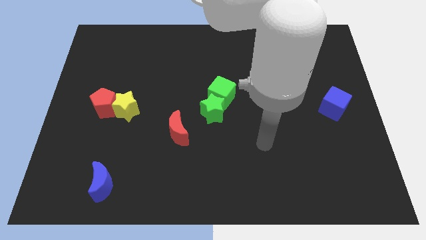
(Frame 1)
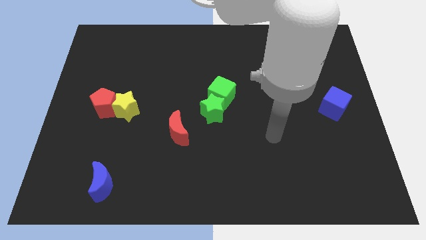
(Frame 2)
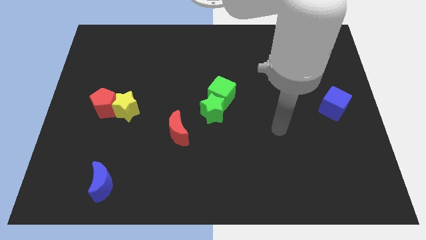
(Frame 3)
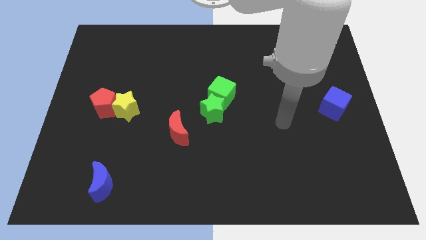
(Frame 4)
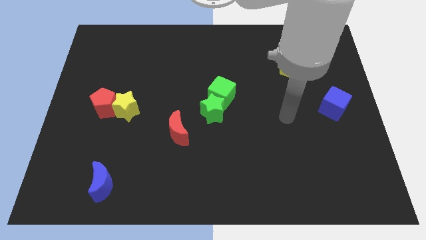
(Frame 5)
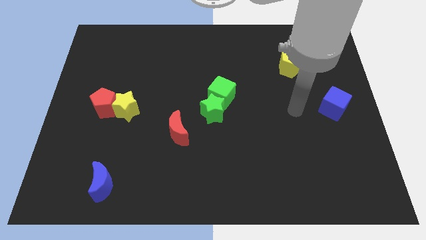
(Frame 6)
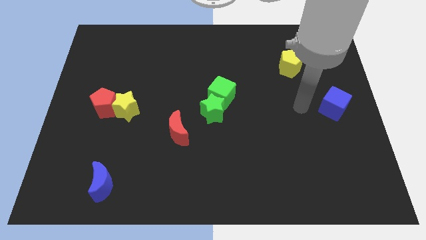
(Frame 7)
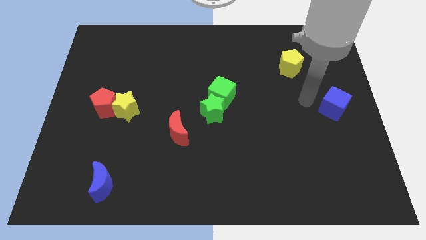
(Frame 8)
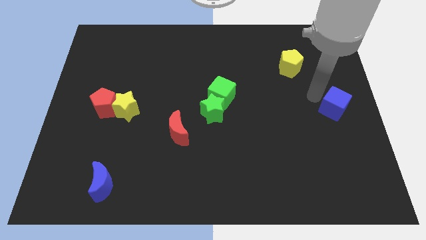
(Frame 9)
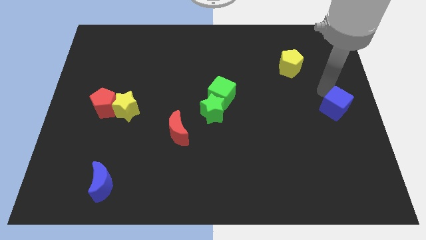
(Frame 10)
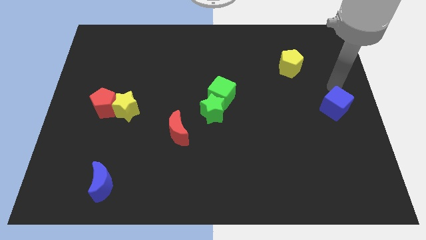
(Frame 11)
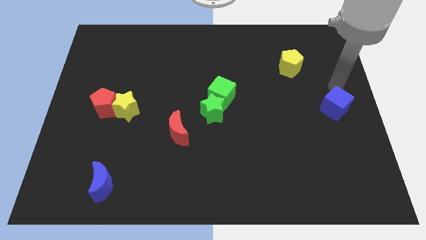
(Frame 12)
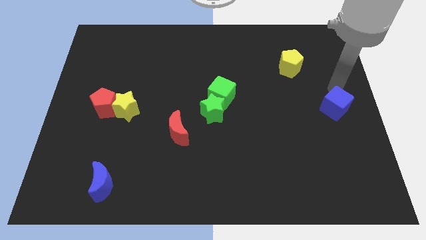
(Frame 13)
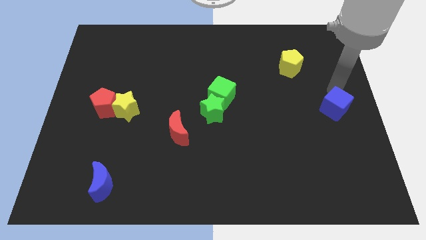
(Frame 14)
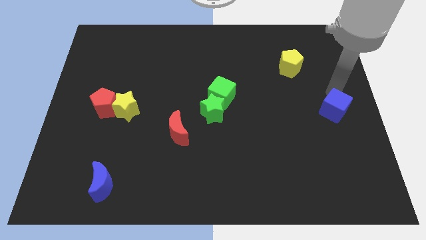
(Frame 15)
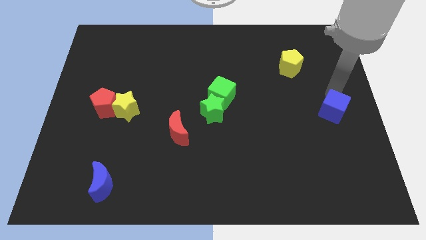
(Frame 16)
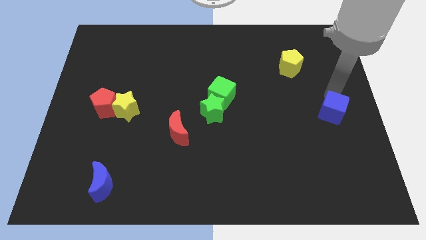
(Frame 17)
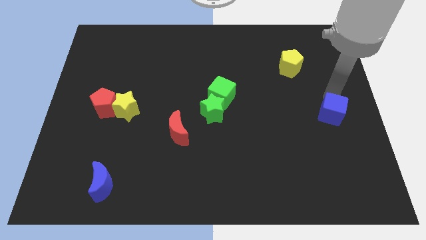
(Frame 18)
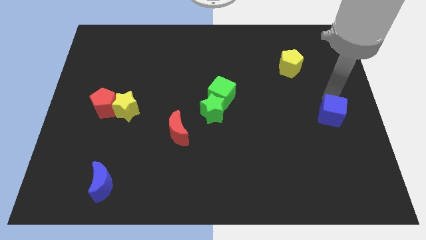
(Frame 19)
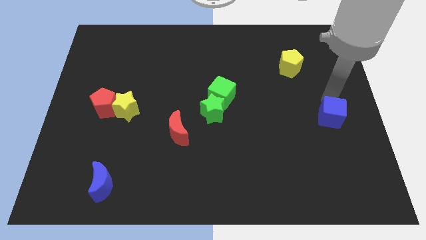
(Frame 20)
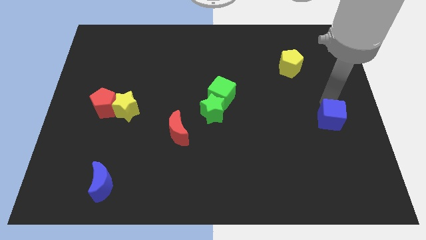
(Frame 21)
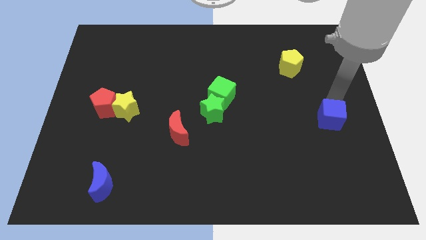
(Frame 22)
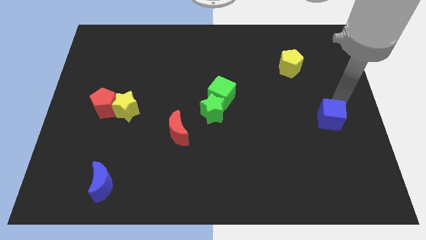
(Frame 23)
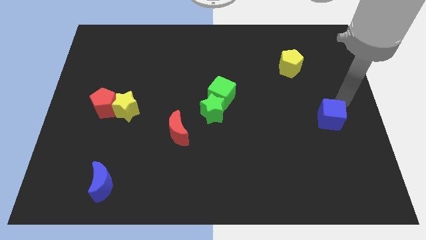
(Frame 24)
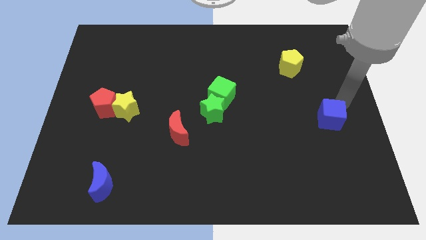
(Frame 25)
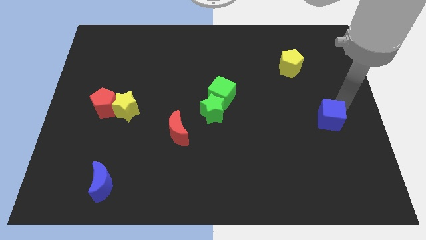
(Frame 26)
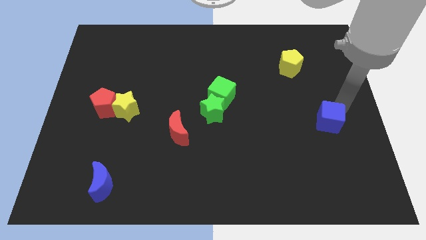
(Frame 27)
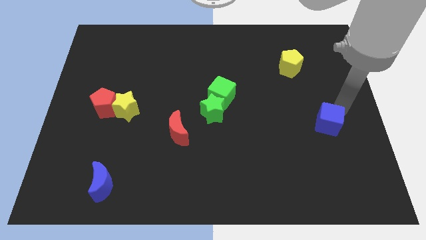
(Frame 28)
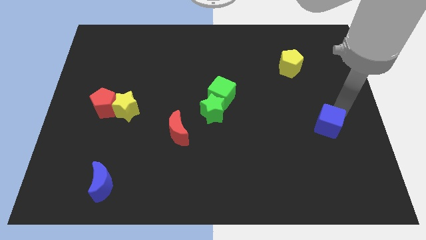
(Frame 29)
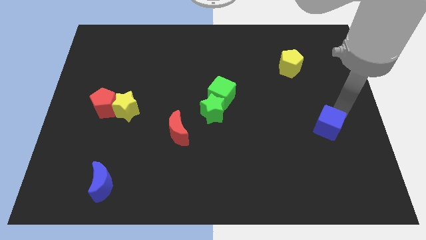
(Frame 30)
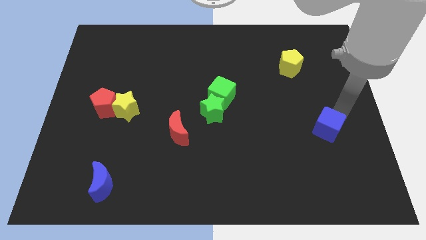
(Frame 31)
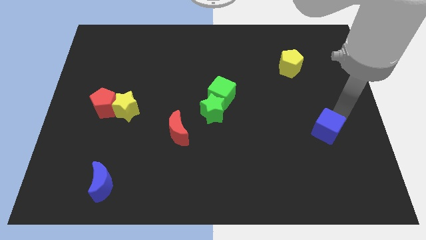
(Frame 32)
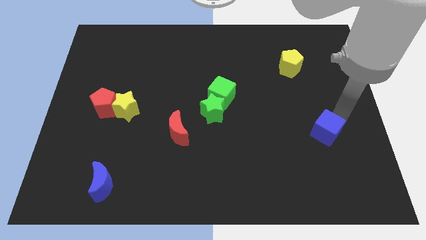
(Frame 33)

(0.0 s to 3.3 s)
slide the blue cube downwards and to the left diagonally a little

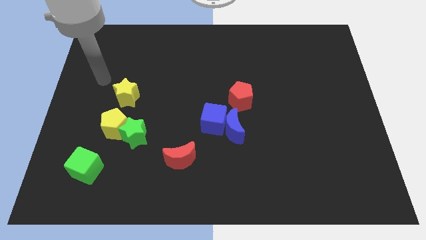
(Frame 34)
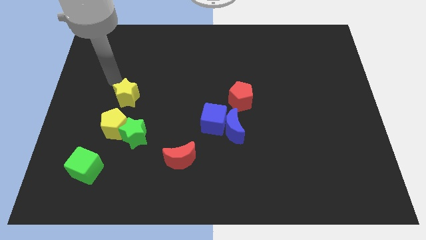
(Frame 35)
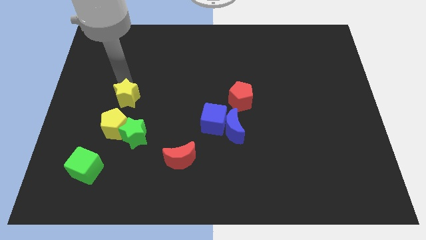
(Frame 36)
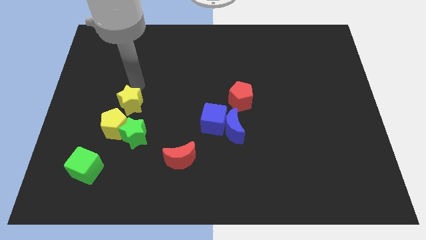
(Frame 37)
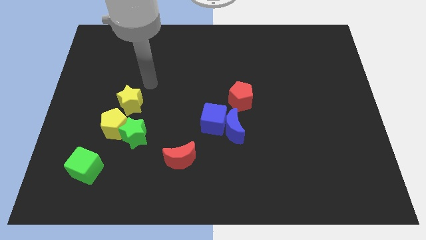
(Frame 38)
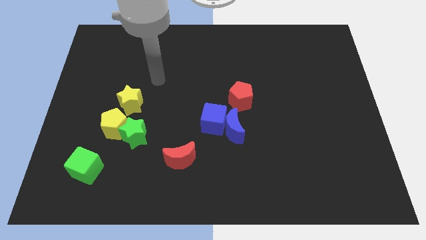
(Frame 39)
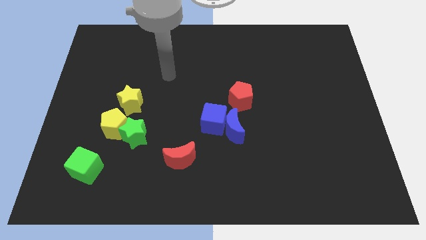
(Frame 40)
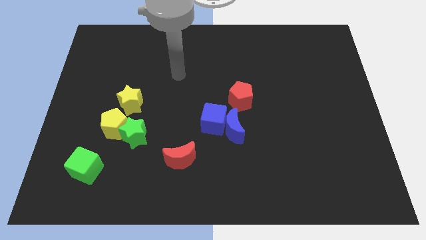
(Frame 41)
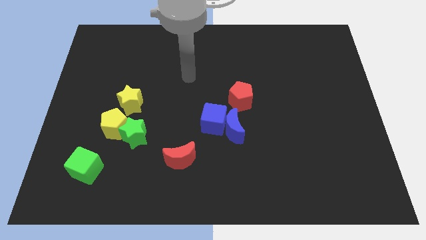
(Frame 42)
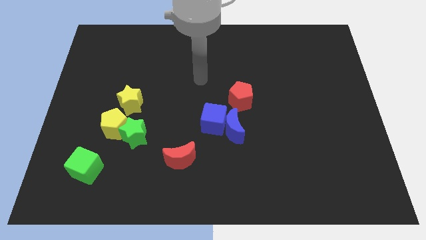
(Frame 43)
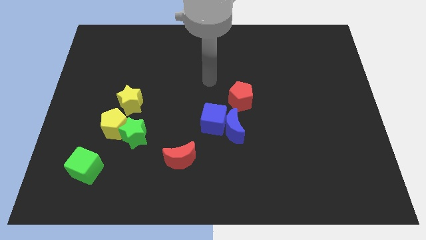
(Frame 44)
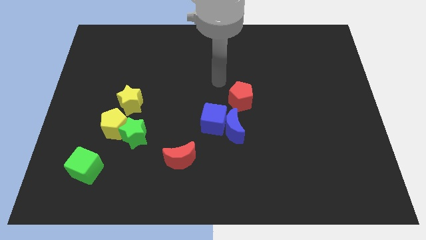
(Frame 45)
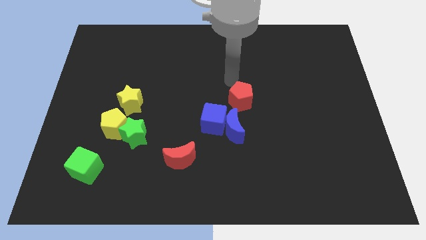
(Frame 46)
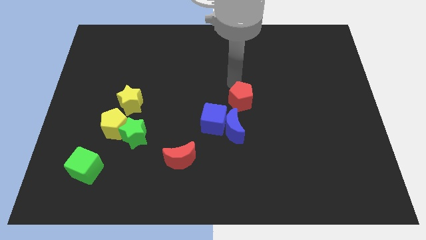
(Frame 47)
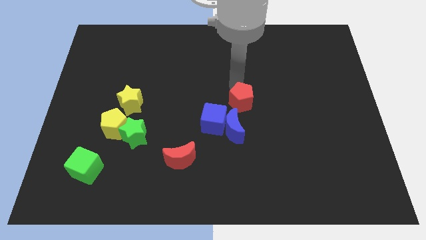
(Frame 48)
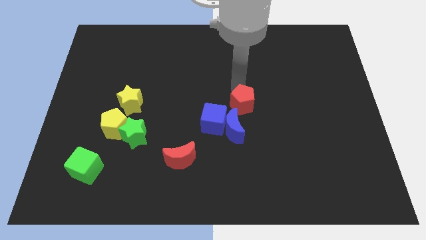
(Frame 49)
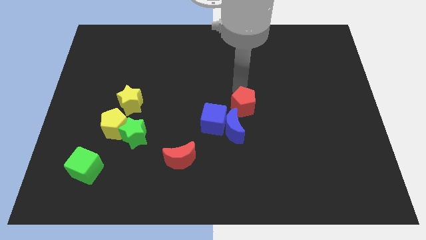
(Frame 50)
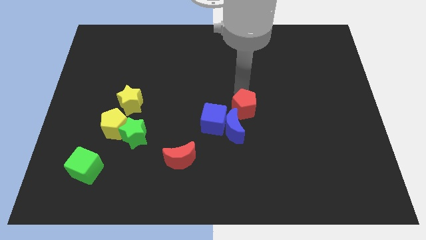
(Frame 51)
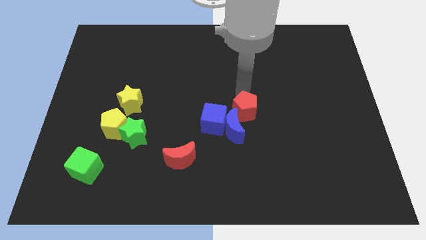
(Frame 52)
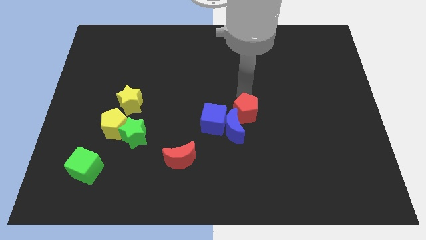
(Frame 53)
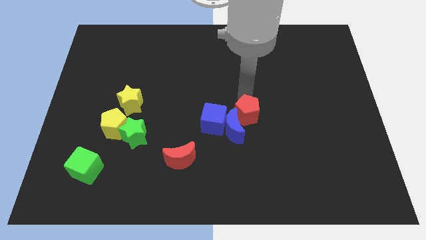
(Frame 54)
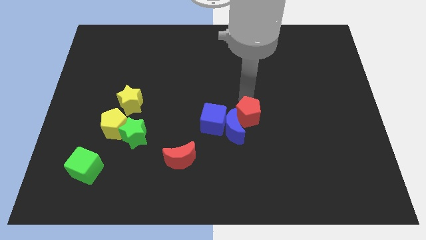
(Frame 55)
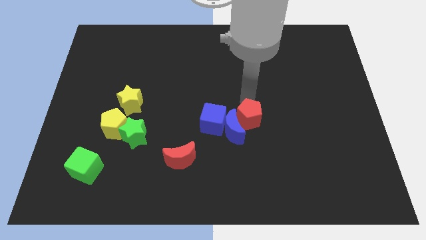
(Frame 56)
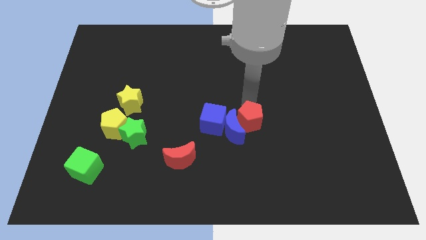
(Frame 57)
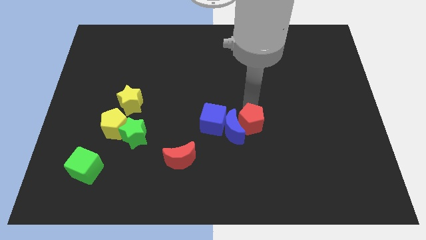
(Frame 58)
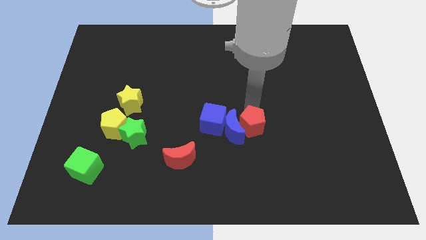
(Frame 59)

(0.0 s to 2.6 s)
move the red pentagon a little bit downwards

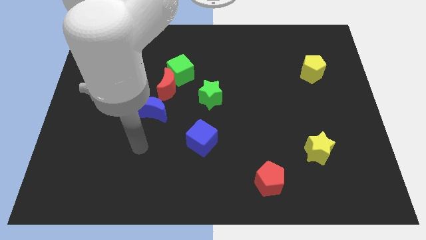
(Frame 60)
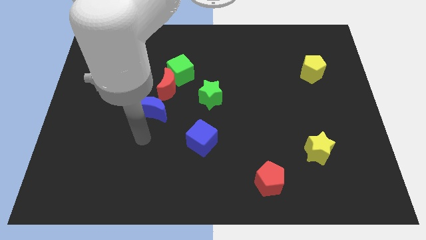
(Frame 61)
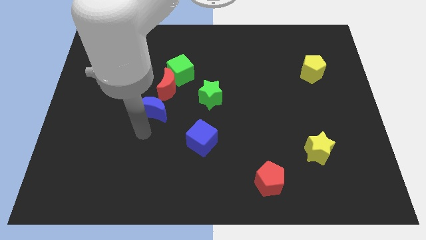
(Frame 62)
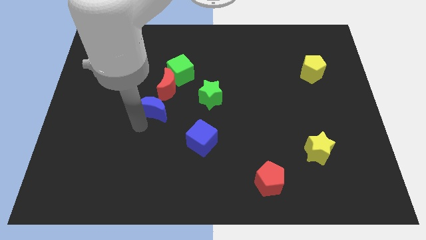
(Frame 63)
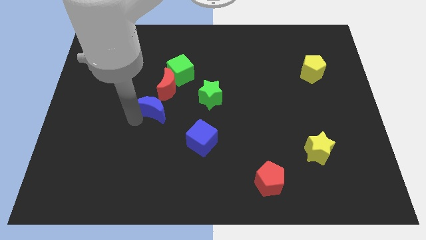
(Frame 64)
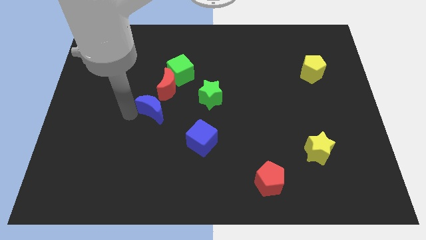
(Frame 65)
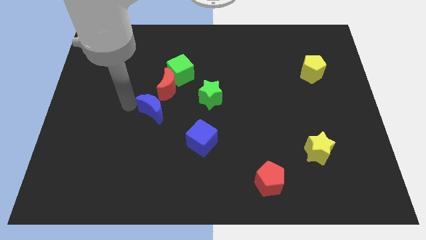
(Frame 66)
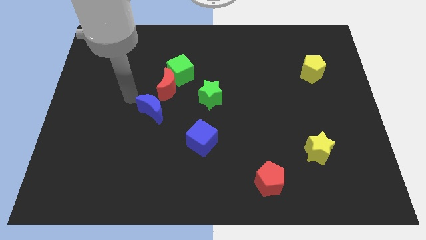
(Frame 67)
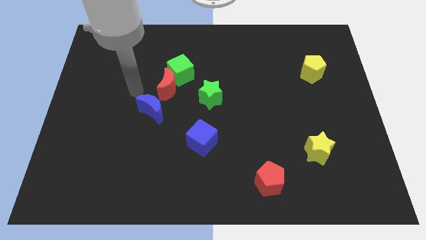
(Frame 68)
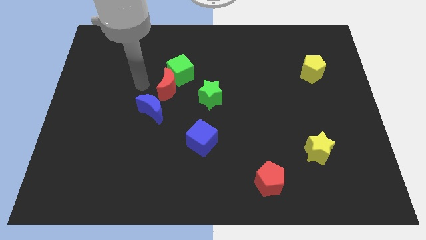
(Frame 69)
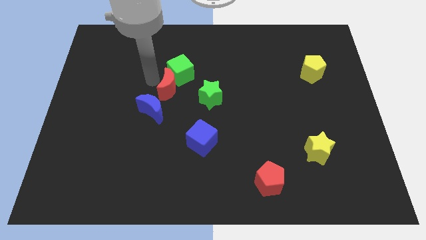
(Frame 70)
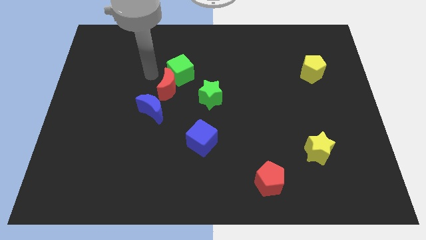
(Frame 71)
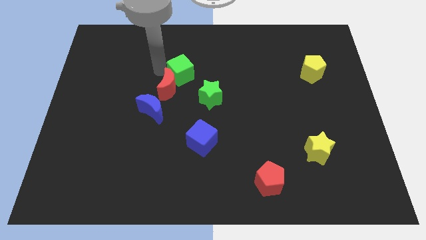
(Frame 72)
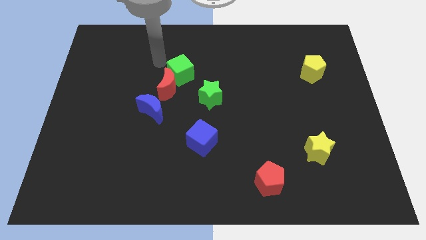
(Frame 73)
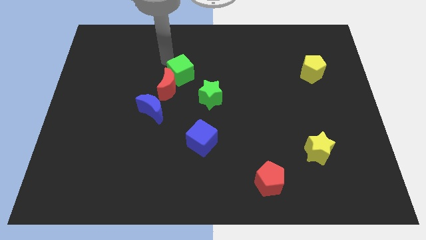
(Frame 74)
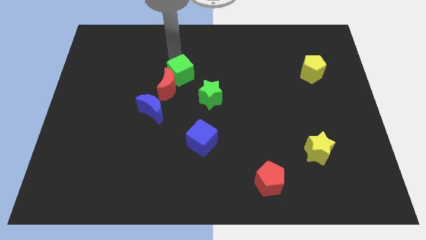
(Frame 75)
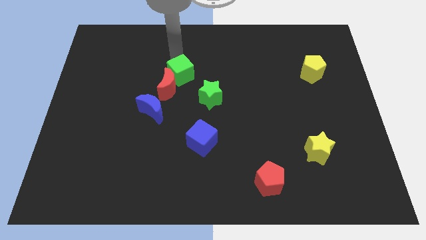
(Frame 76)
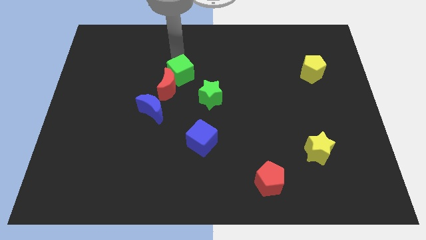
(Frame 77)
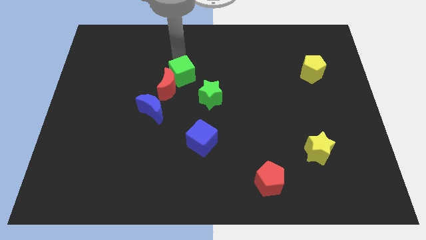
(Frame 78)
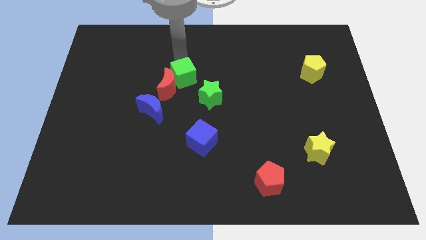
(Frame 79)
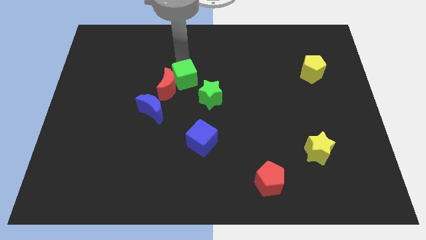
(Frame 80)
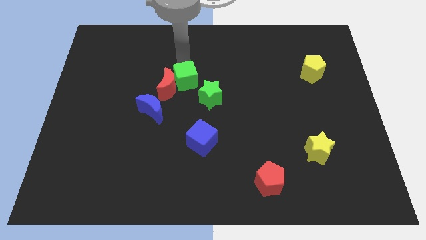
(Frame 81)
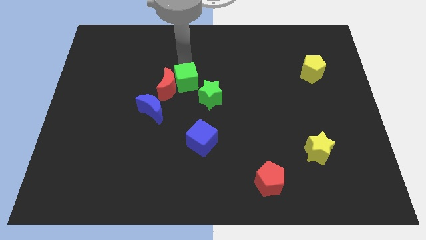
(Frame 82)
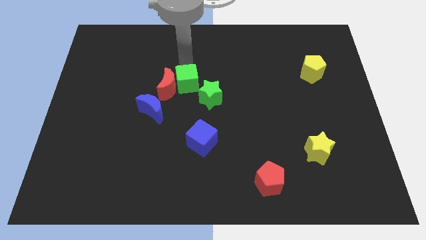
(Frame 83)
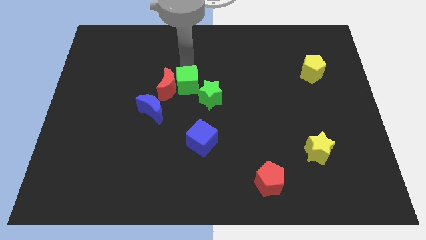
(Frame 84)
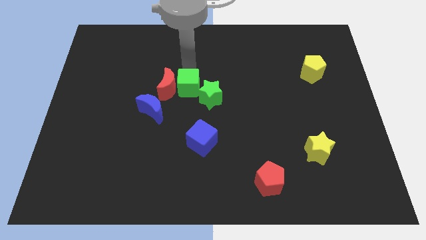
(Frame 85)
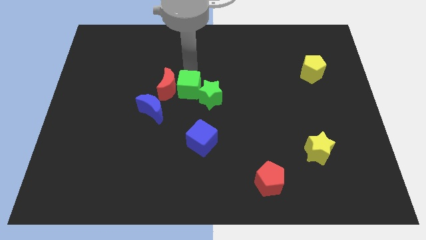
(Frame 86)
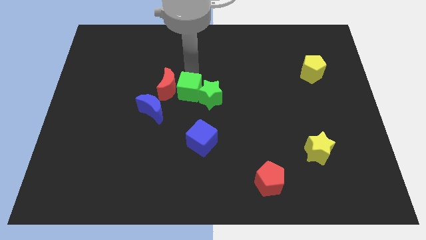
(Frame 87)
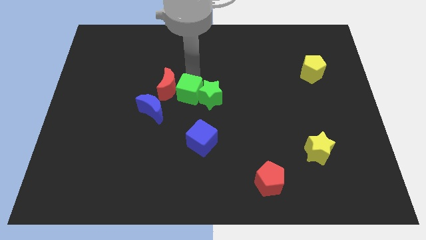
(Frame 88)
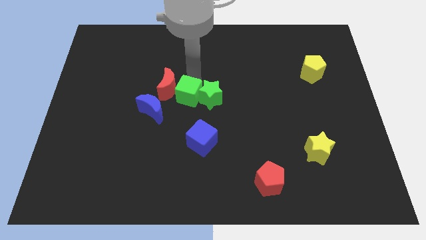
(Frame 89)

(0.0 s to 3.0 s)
move the green cube a little bit downwards
